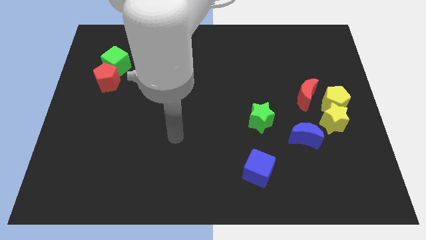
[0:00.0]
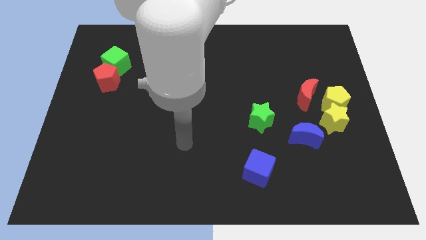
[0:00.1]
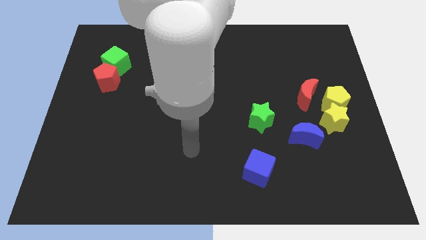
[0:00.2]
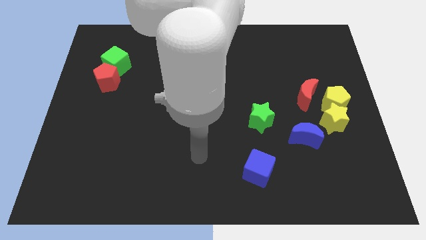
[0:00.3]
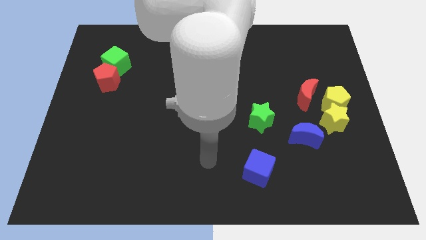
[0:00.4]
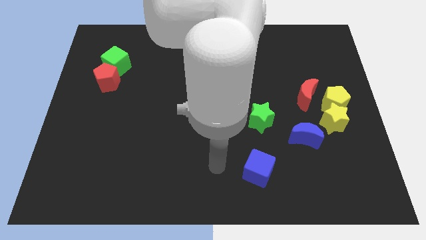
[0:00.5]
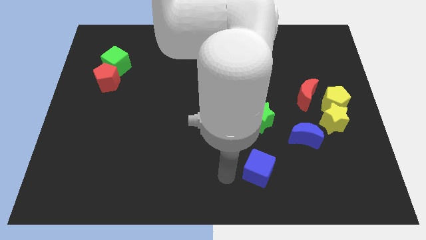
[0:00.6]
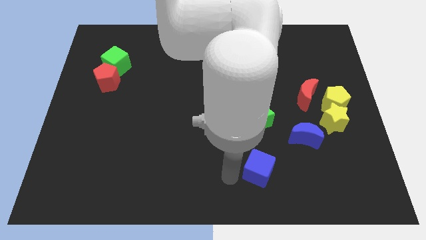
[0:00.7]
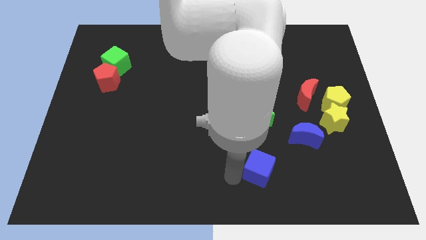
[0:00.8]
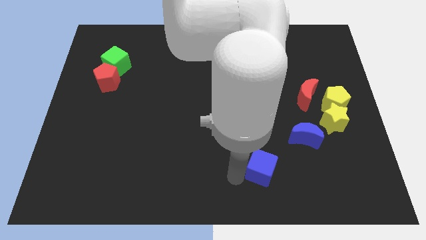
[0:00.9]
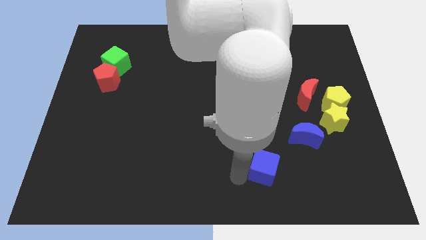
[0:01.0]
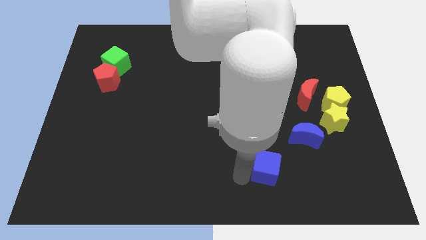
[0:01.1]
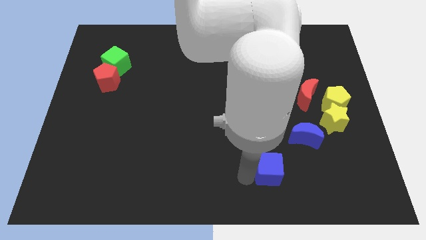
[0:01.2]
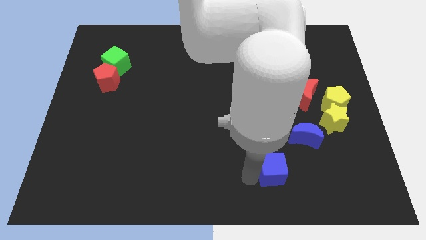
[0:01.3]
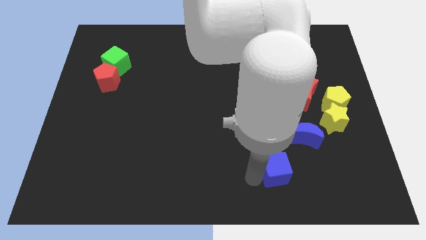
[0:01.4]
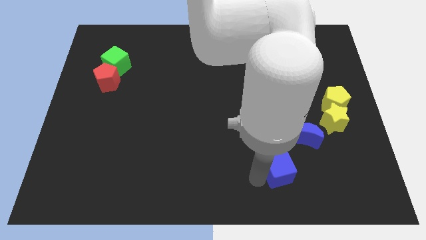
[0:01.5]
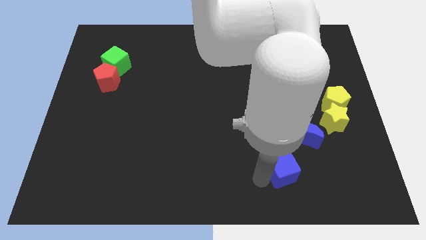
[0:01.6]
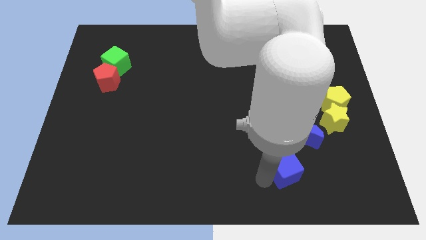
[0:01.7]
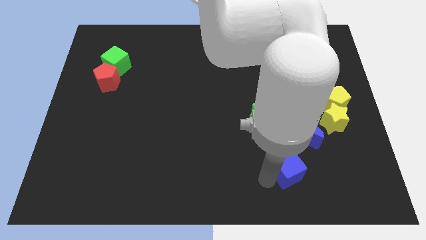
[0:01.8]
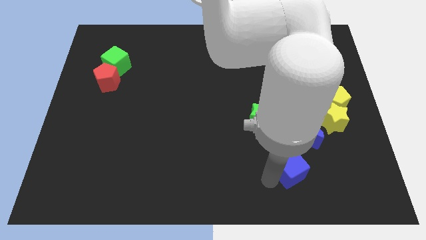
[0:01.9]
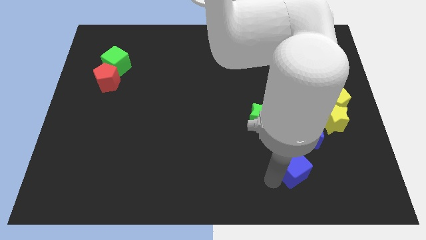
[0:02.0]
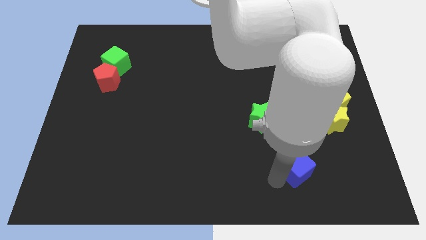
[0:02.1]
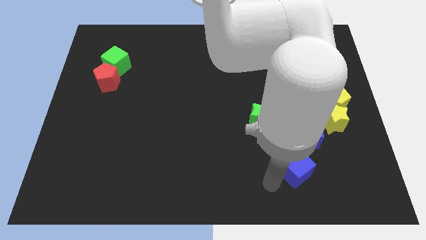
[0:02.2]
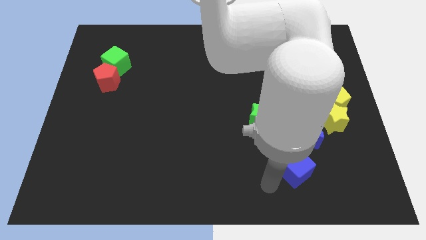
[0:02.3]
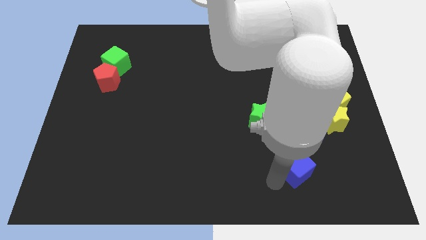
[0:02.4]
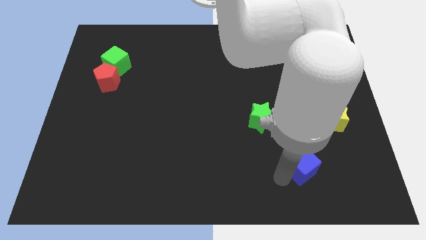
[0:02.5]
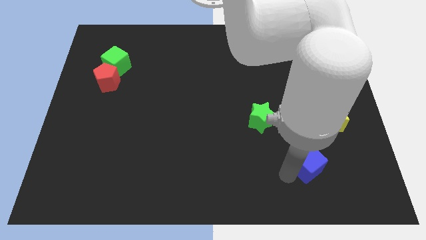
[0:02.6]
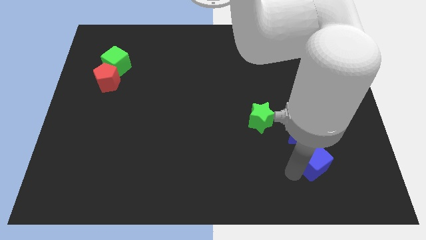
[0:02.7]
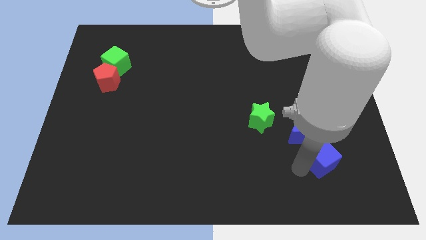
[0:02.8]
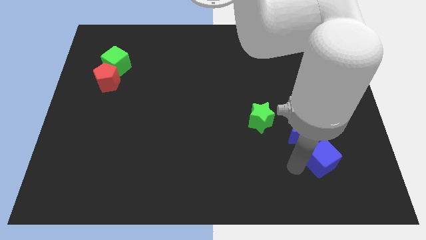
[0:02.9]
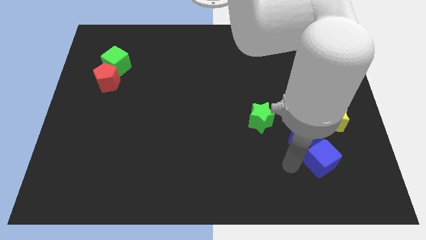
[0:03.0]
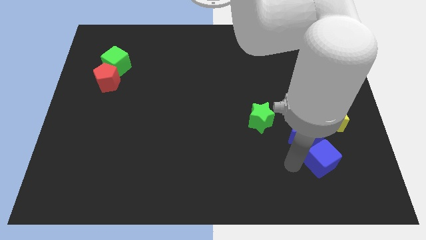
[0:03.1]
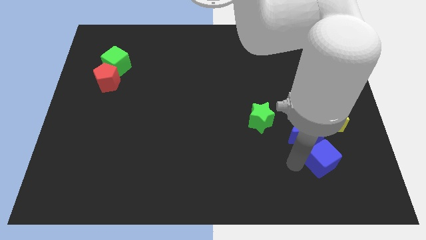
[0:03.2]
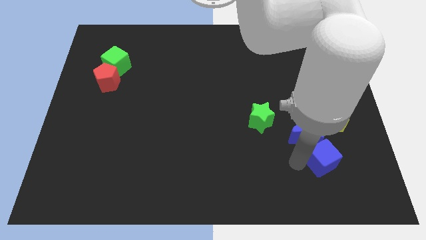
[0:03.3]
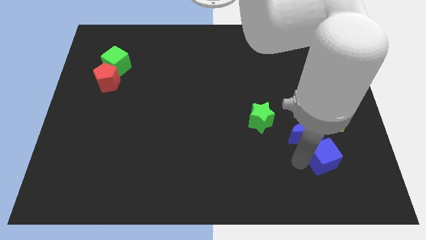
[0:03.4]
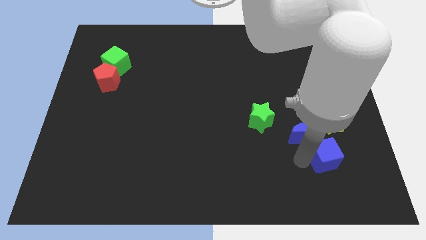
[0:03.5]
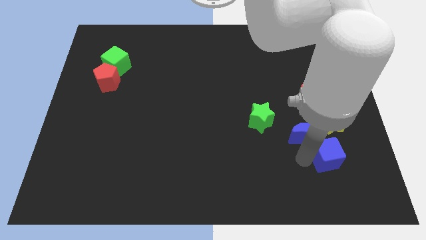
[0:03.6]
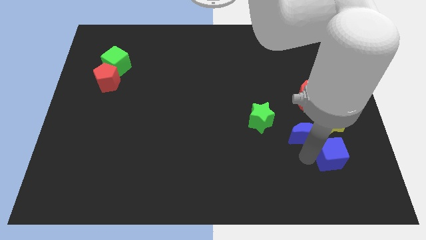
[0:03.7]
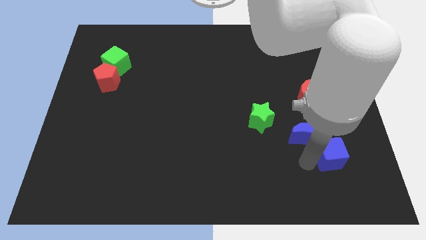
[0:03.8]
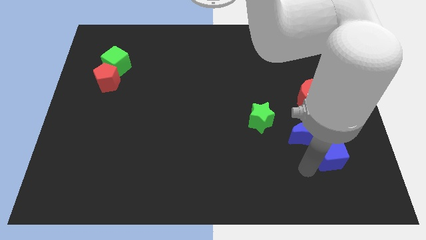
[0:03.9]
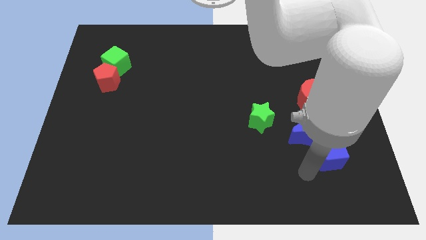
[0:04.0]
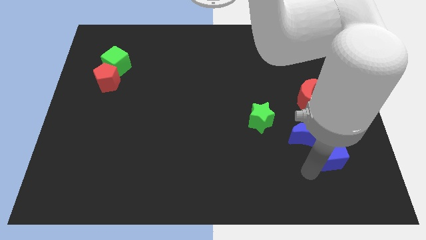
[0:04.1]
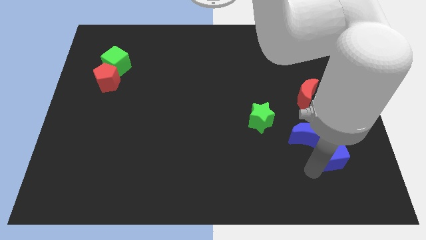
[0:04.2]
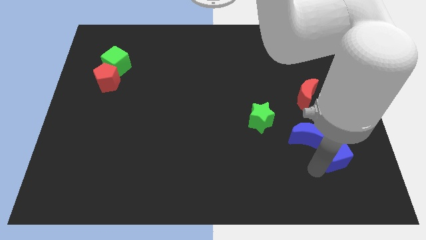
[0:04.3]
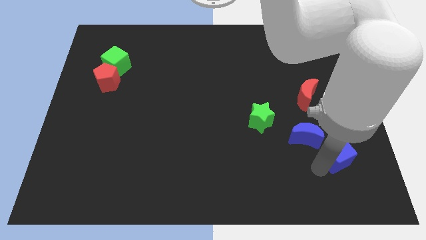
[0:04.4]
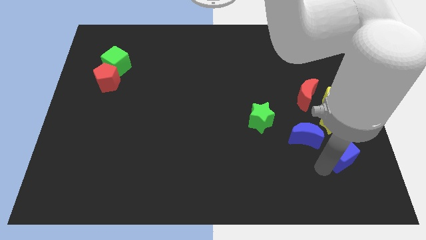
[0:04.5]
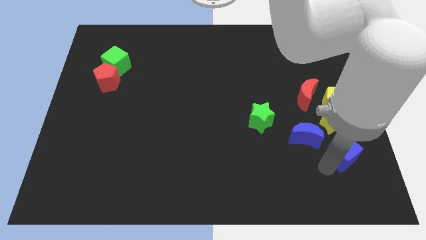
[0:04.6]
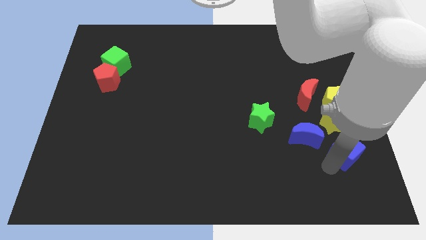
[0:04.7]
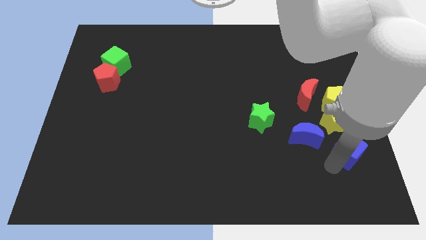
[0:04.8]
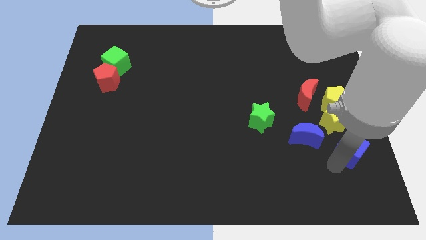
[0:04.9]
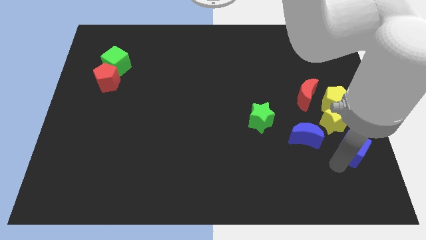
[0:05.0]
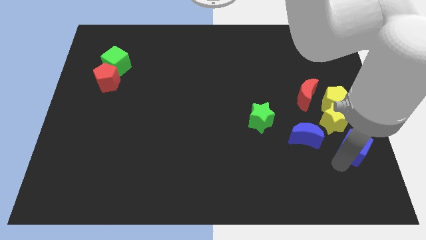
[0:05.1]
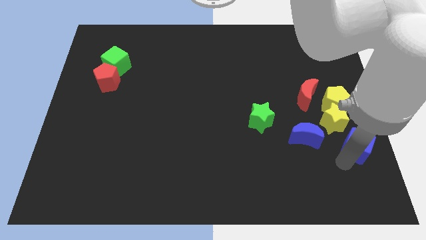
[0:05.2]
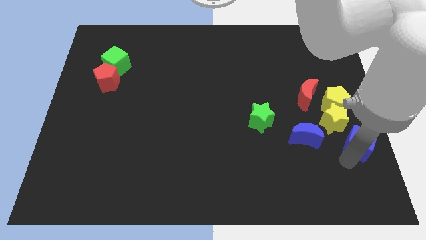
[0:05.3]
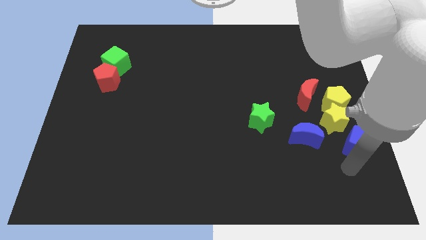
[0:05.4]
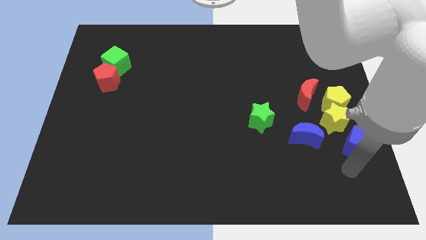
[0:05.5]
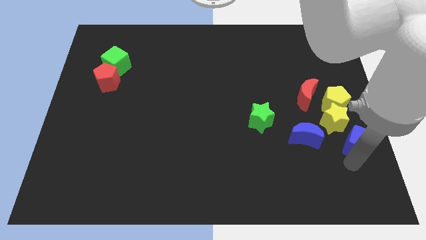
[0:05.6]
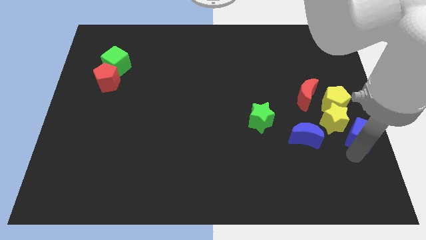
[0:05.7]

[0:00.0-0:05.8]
push the blue cube to the right side
